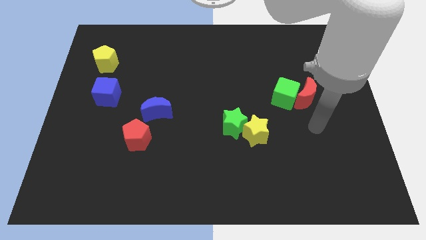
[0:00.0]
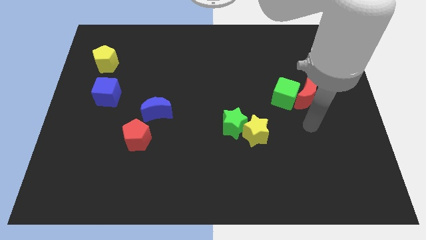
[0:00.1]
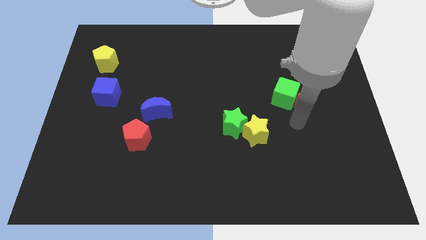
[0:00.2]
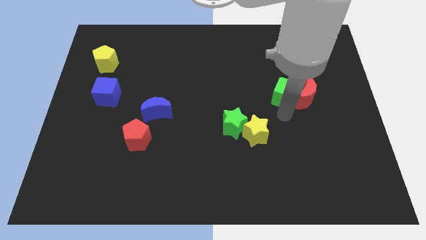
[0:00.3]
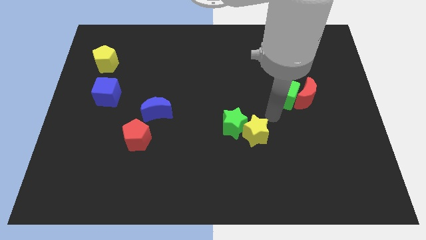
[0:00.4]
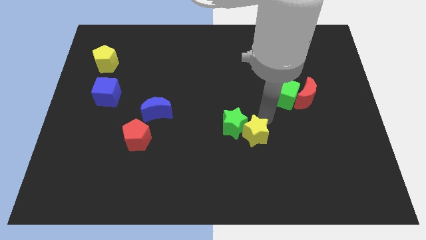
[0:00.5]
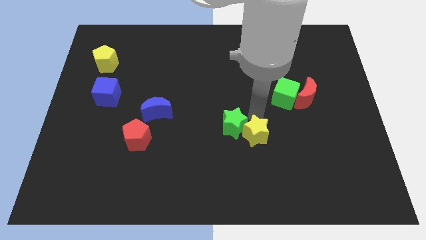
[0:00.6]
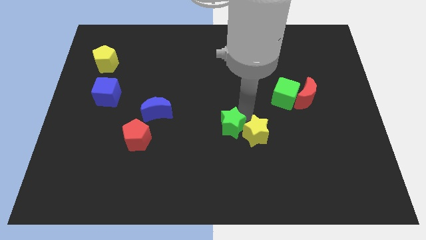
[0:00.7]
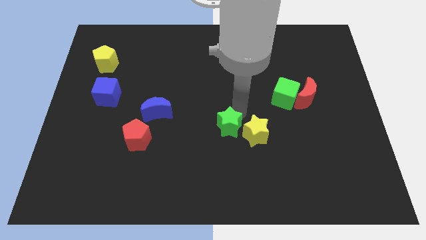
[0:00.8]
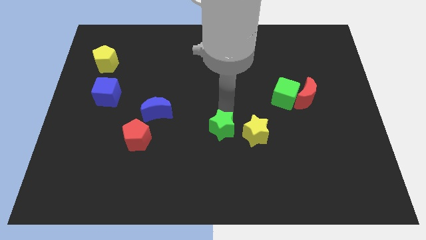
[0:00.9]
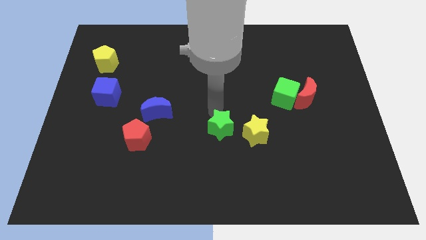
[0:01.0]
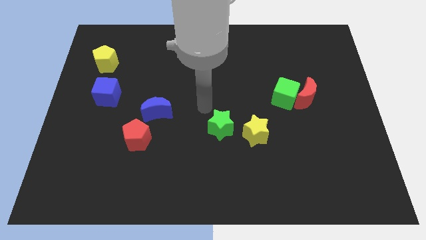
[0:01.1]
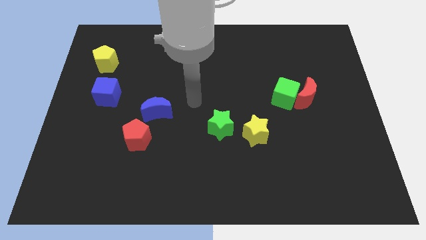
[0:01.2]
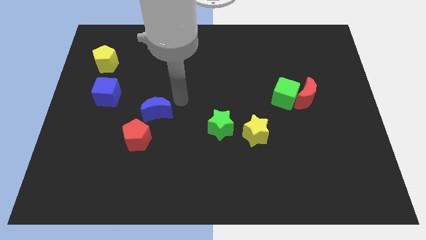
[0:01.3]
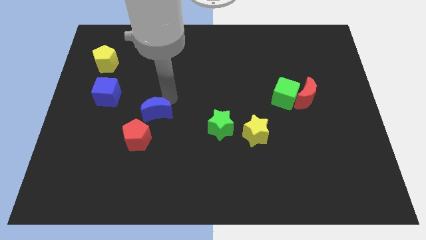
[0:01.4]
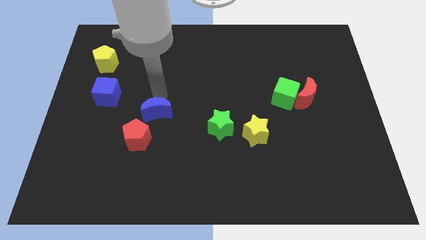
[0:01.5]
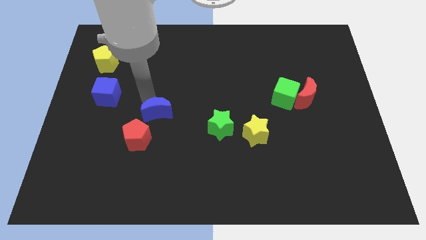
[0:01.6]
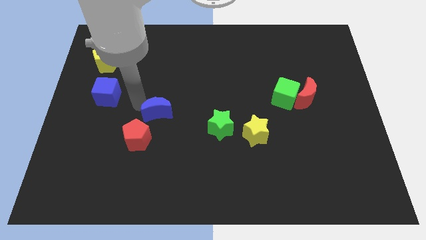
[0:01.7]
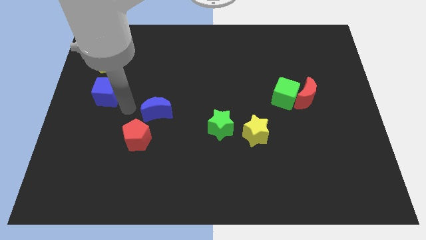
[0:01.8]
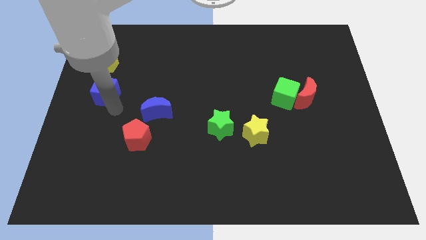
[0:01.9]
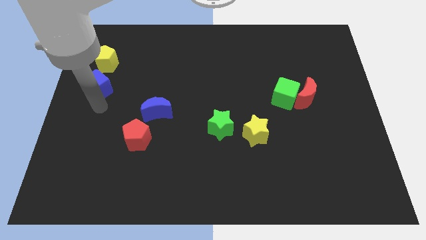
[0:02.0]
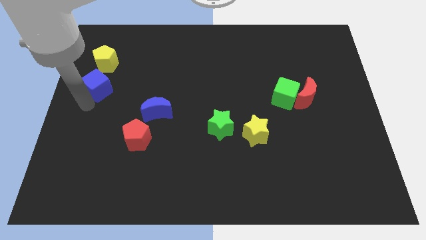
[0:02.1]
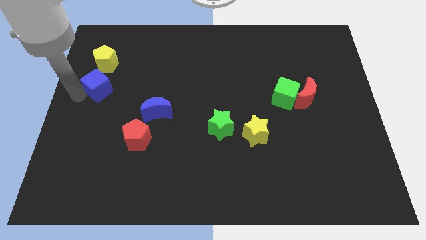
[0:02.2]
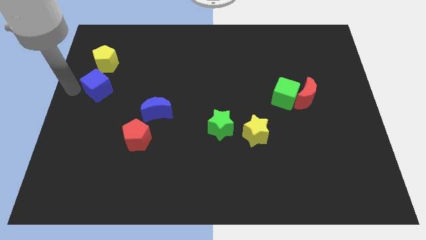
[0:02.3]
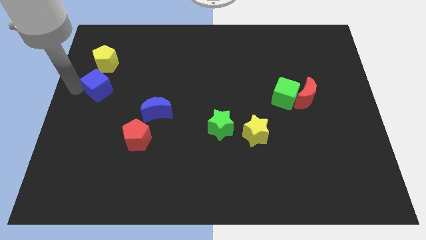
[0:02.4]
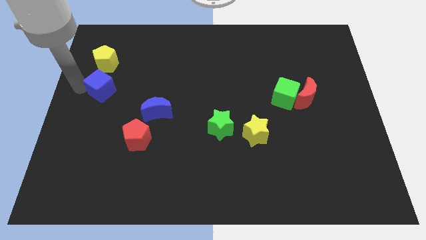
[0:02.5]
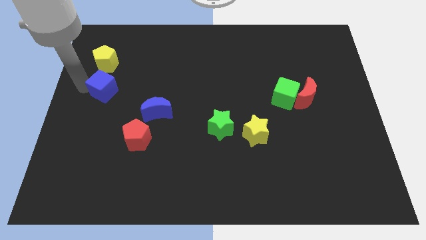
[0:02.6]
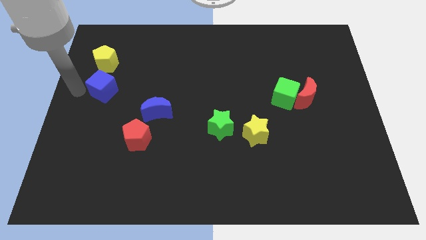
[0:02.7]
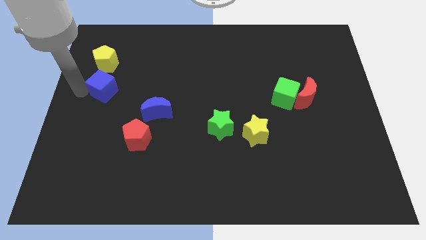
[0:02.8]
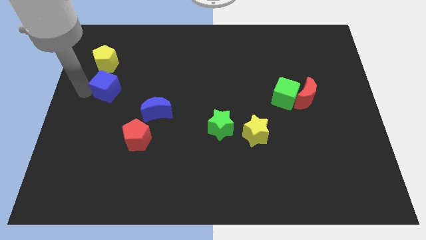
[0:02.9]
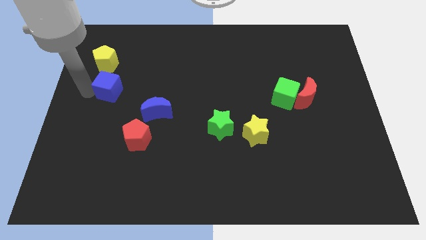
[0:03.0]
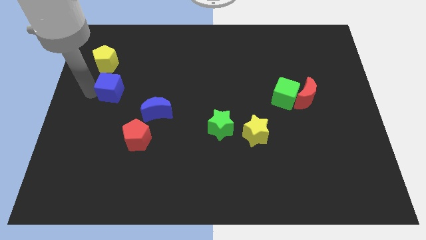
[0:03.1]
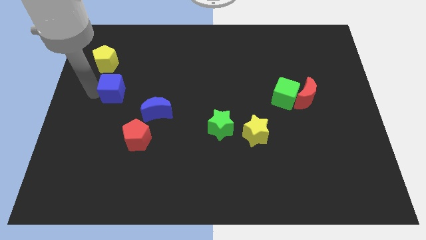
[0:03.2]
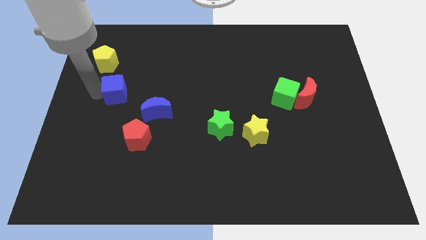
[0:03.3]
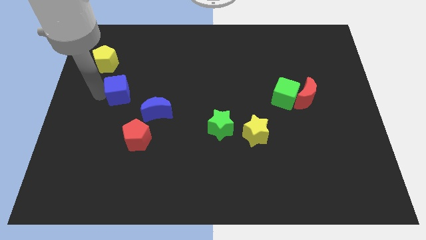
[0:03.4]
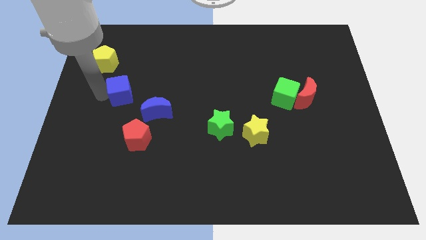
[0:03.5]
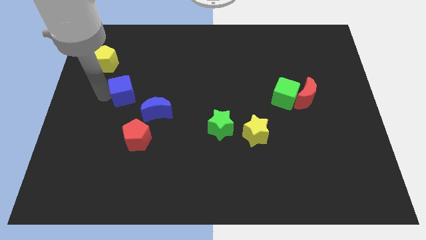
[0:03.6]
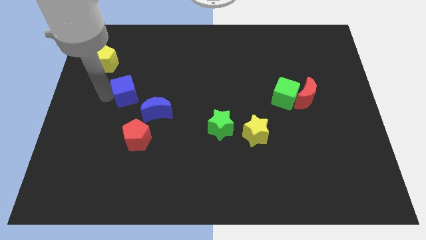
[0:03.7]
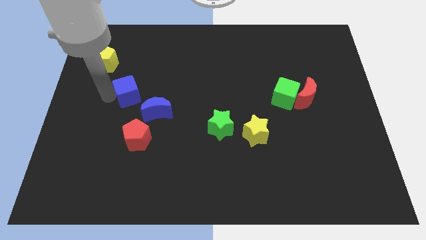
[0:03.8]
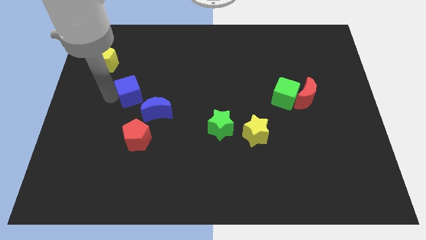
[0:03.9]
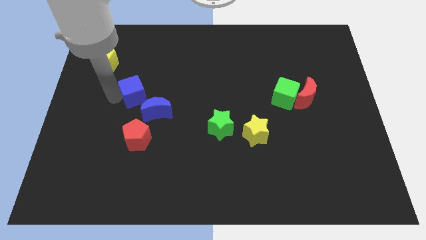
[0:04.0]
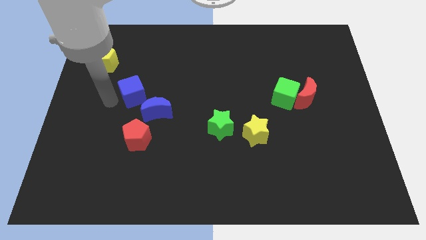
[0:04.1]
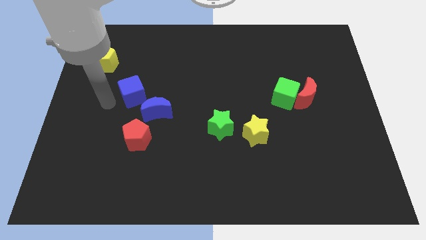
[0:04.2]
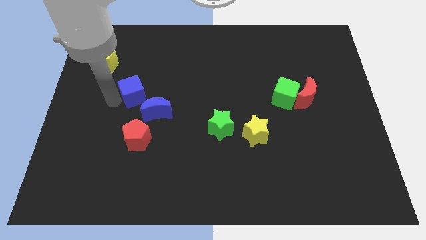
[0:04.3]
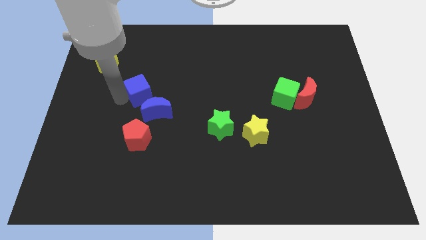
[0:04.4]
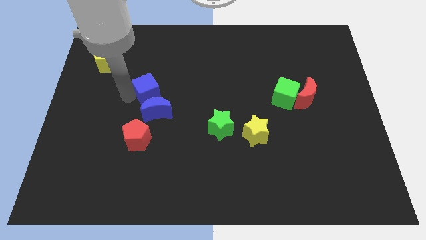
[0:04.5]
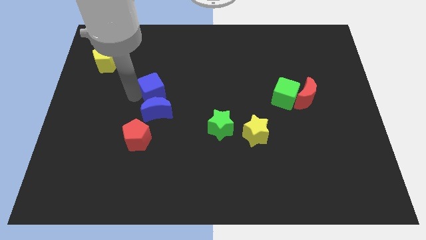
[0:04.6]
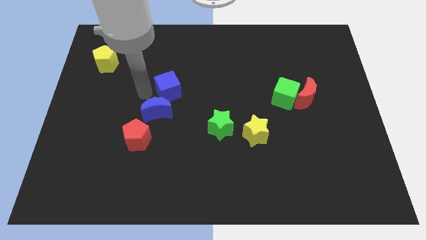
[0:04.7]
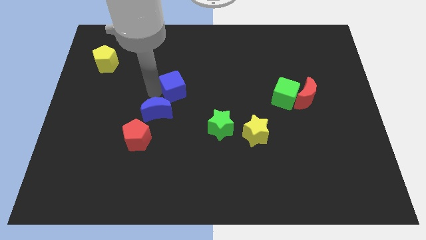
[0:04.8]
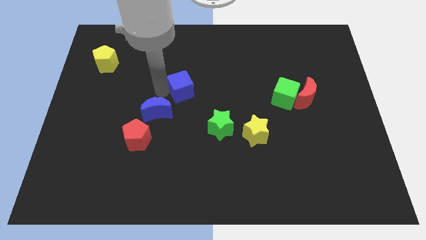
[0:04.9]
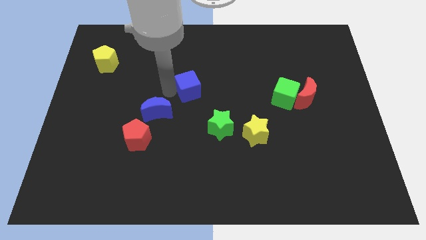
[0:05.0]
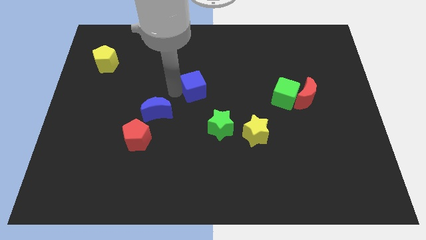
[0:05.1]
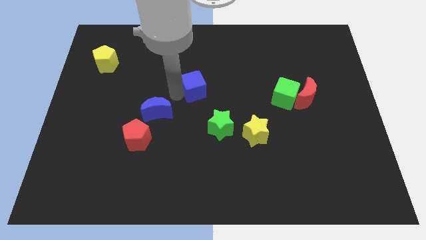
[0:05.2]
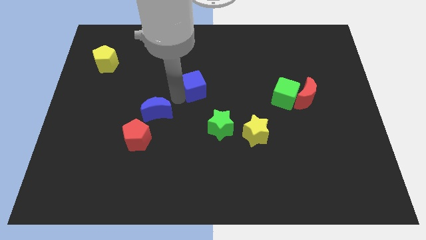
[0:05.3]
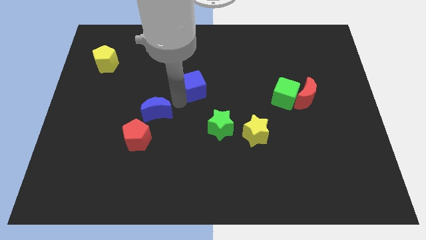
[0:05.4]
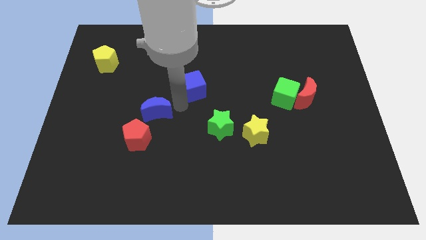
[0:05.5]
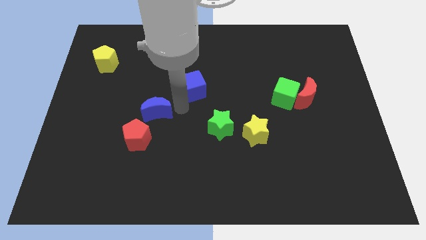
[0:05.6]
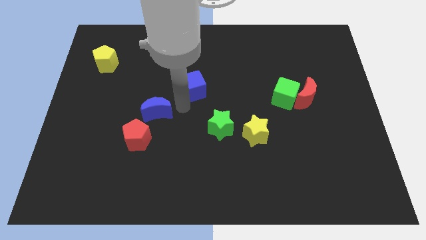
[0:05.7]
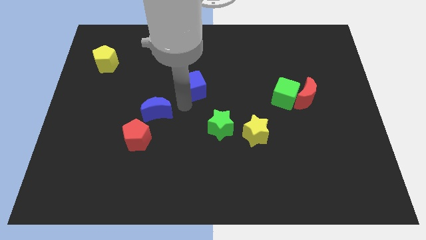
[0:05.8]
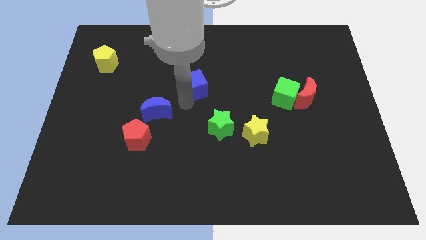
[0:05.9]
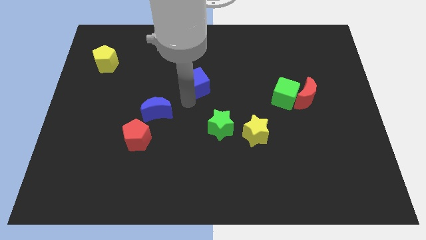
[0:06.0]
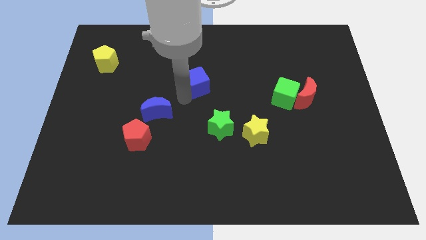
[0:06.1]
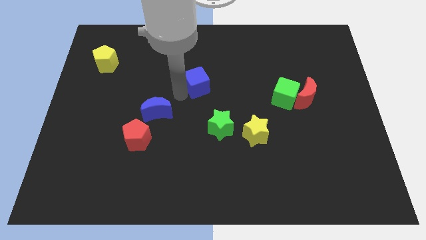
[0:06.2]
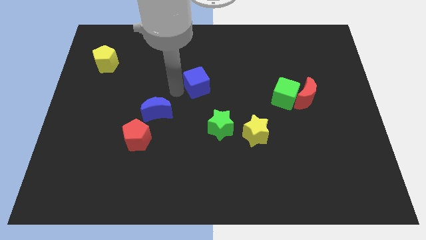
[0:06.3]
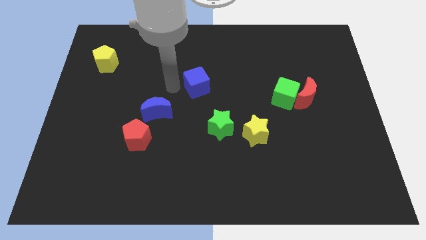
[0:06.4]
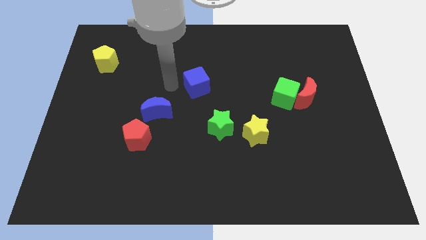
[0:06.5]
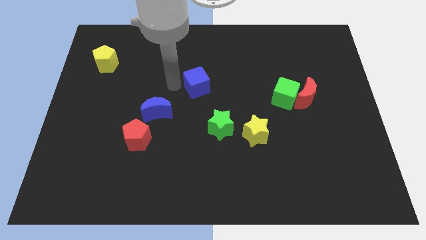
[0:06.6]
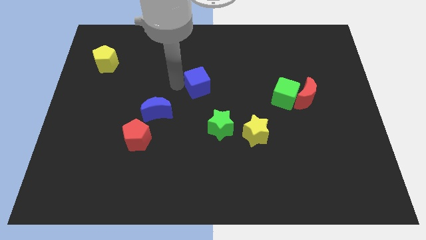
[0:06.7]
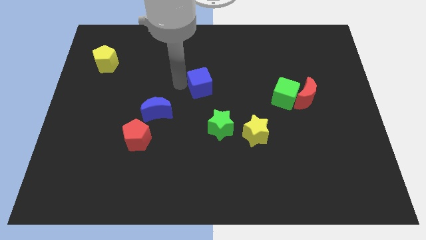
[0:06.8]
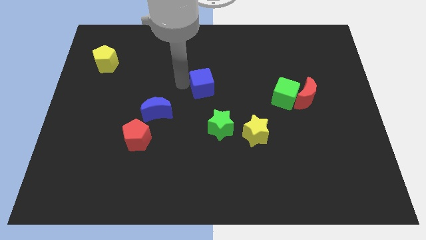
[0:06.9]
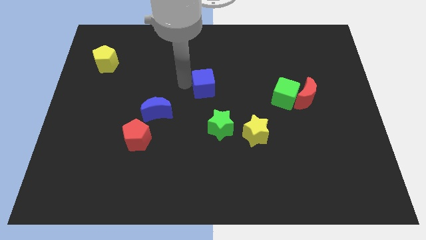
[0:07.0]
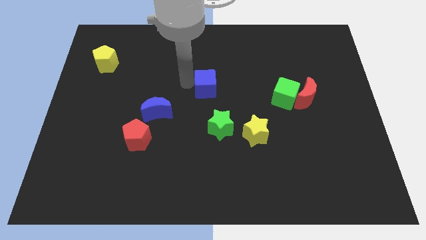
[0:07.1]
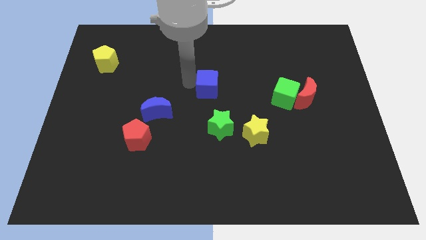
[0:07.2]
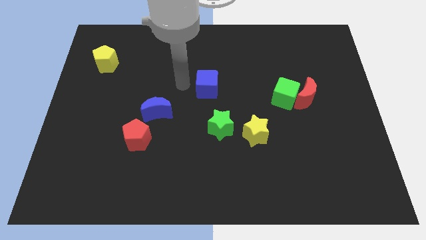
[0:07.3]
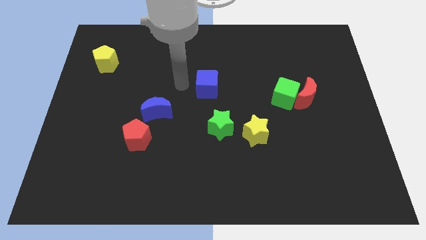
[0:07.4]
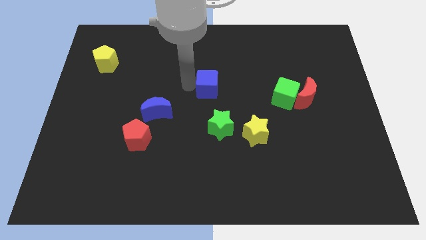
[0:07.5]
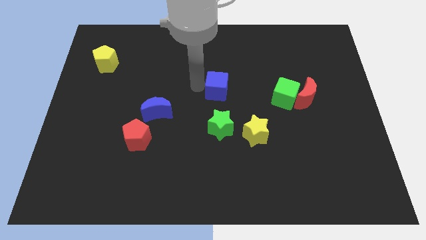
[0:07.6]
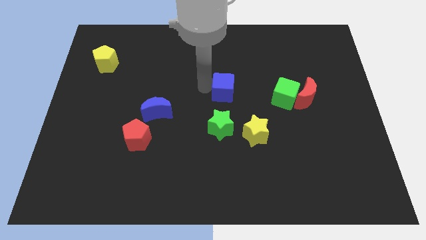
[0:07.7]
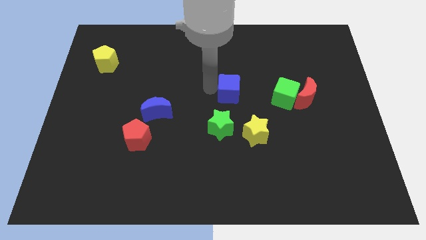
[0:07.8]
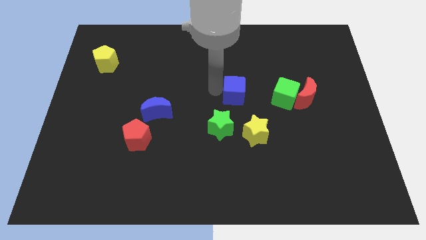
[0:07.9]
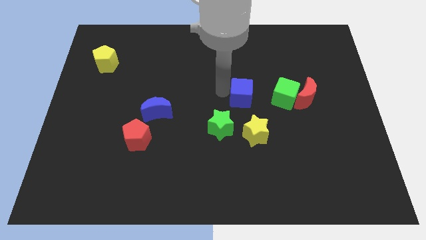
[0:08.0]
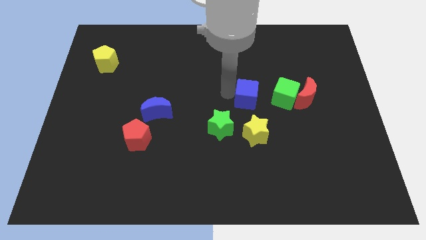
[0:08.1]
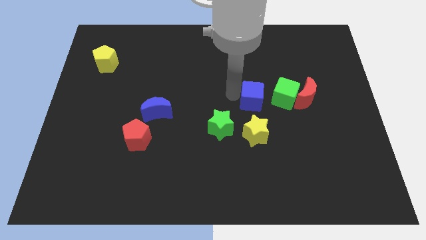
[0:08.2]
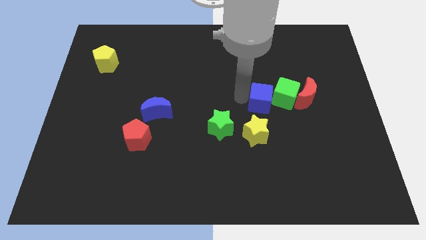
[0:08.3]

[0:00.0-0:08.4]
push the blue cube next to the green cube
